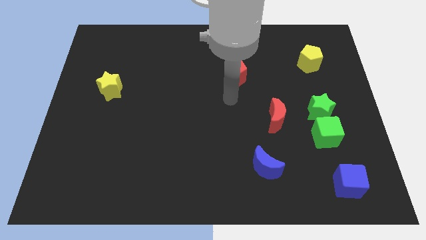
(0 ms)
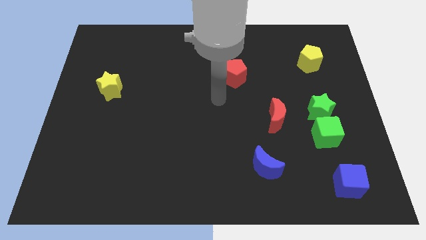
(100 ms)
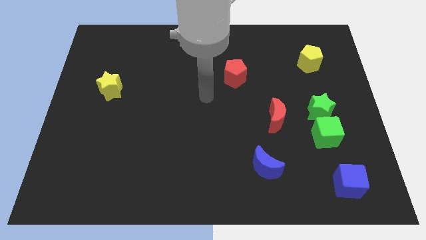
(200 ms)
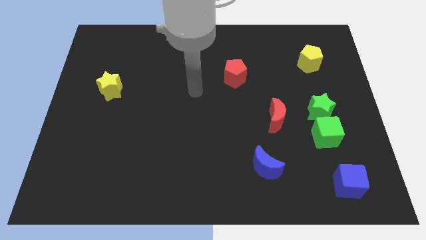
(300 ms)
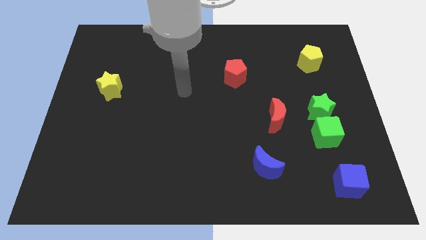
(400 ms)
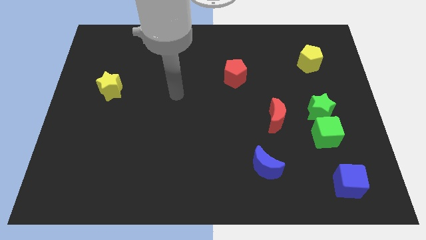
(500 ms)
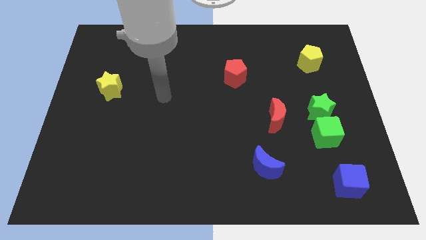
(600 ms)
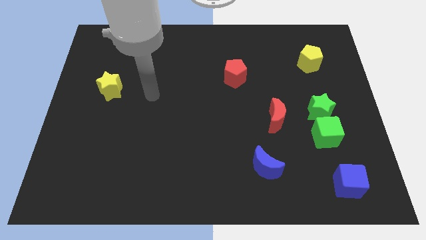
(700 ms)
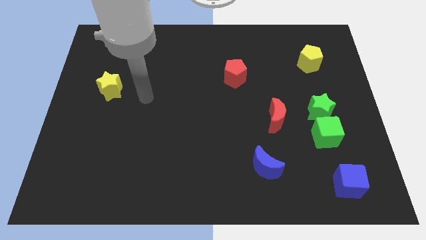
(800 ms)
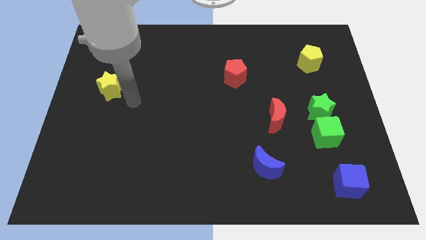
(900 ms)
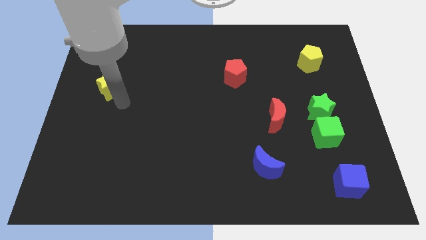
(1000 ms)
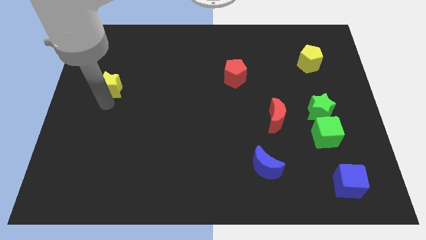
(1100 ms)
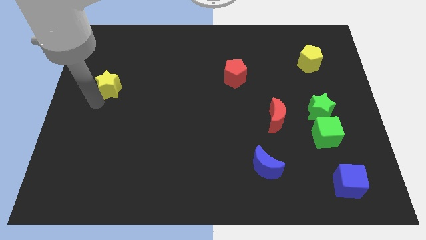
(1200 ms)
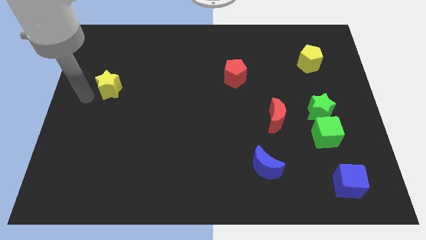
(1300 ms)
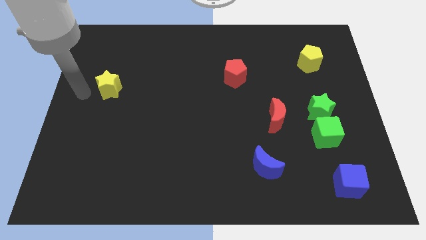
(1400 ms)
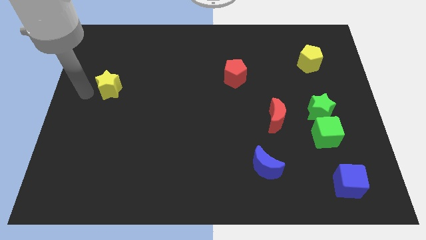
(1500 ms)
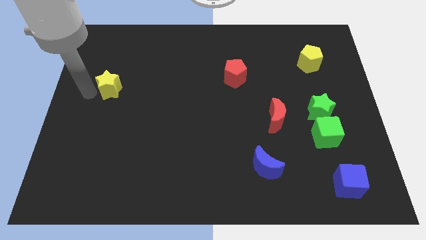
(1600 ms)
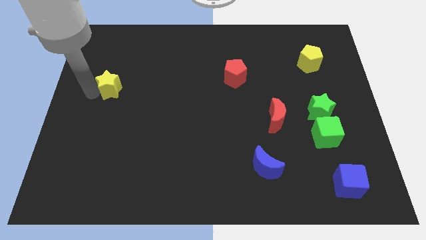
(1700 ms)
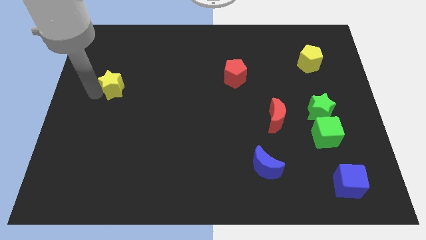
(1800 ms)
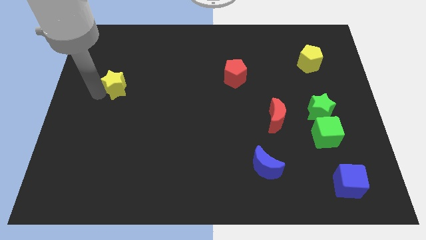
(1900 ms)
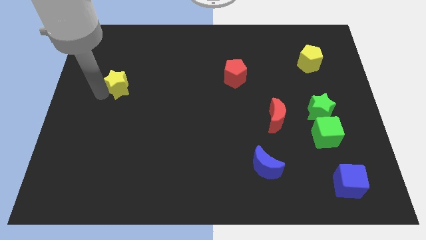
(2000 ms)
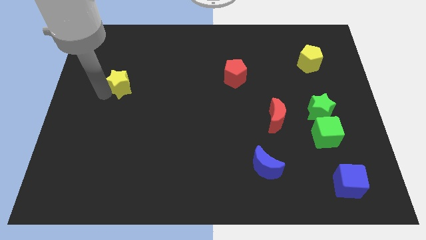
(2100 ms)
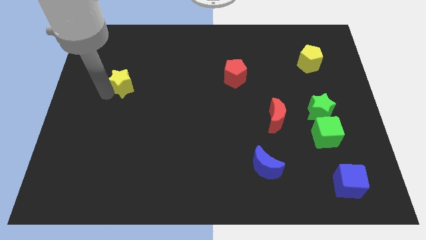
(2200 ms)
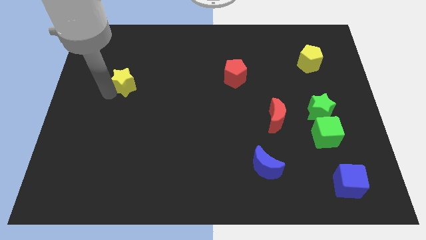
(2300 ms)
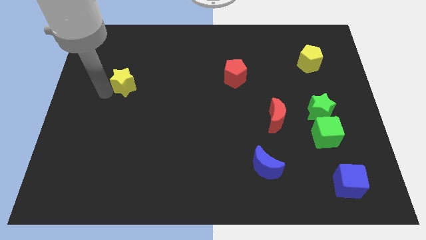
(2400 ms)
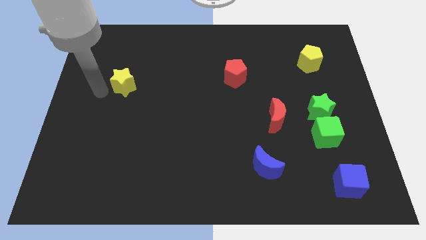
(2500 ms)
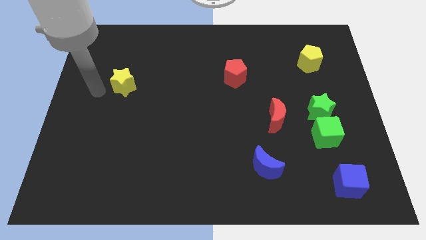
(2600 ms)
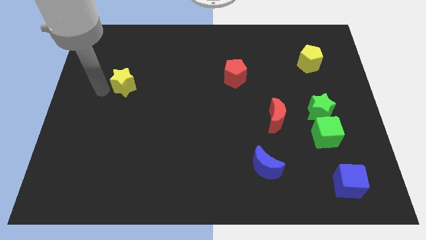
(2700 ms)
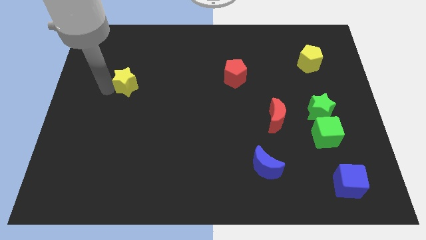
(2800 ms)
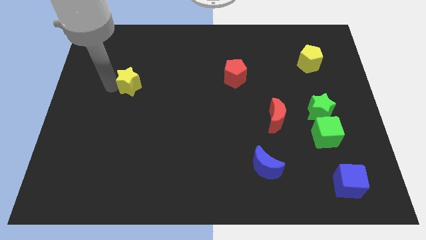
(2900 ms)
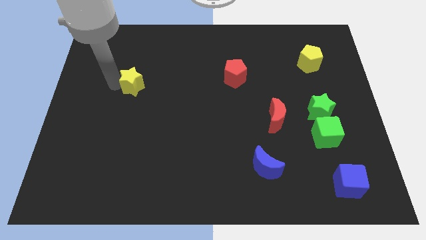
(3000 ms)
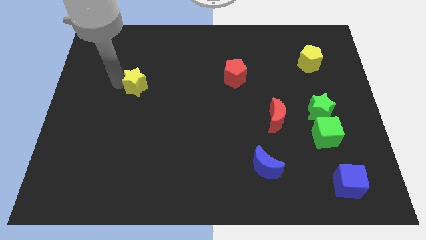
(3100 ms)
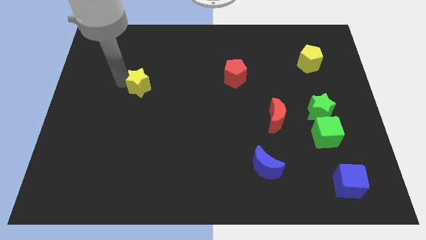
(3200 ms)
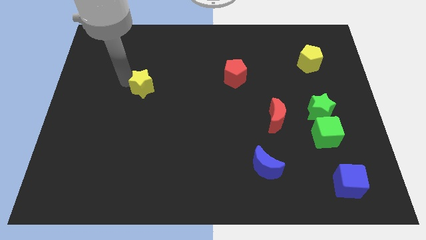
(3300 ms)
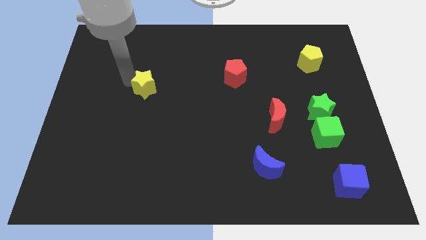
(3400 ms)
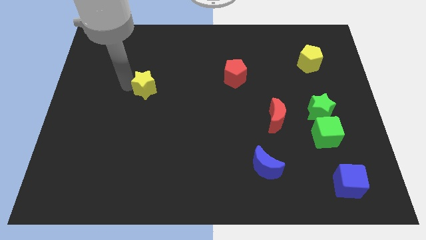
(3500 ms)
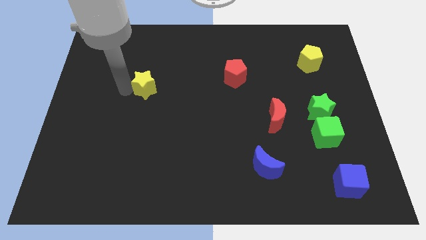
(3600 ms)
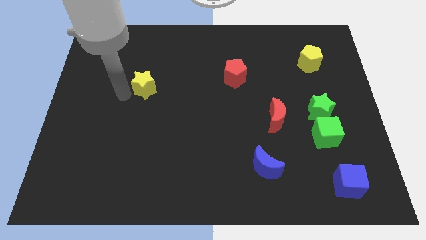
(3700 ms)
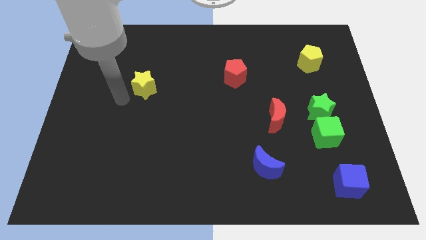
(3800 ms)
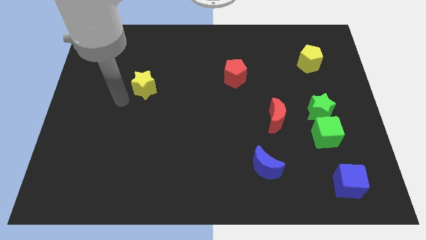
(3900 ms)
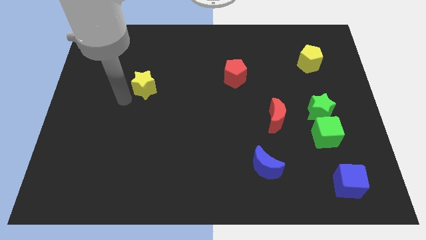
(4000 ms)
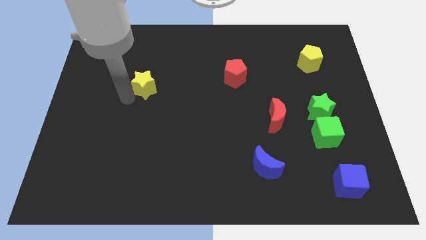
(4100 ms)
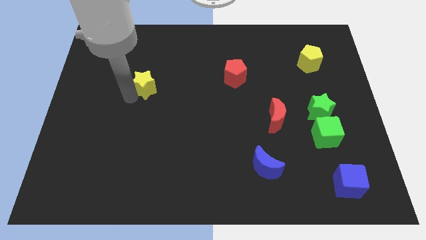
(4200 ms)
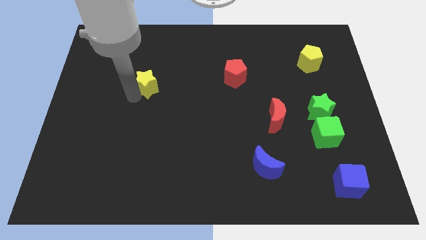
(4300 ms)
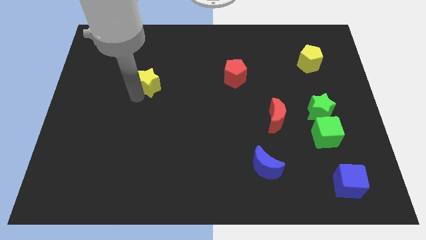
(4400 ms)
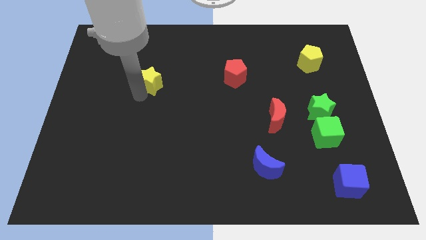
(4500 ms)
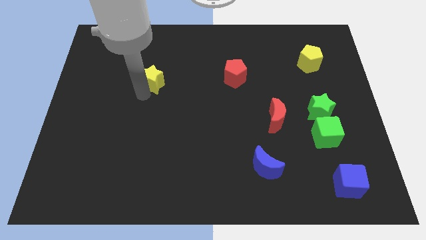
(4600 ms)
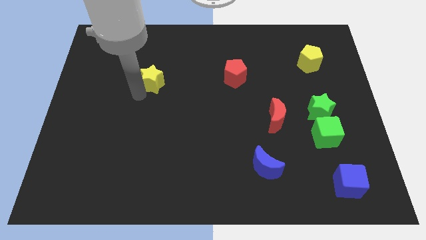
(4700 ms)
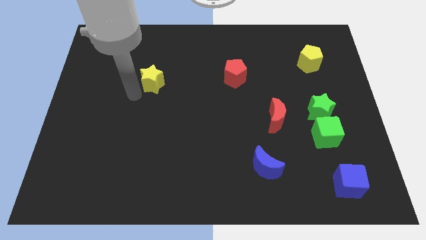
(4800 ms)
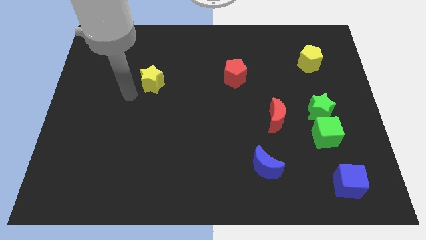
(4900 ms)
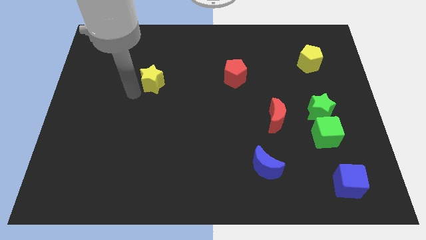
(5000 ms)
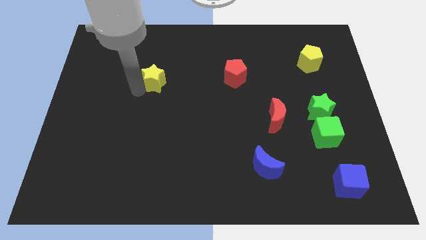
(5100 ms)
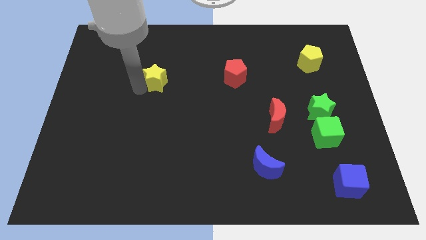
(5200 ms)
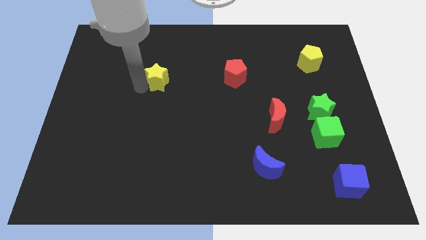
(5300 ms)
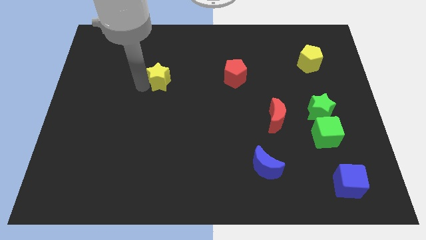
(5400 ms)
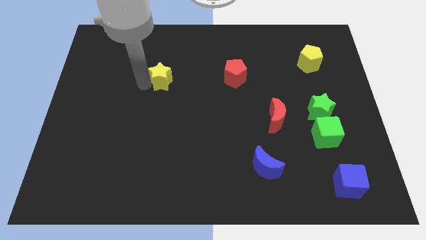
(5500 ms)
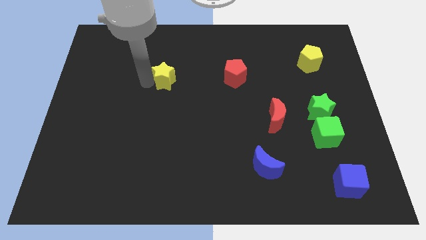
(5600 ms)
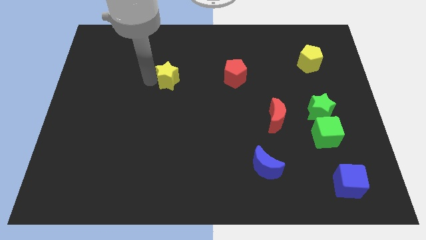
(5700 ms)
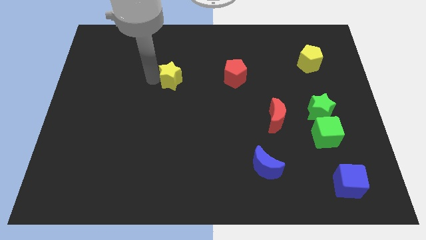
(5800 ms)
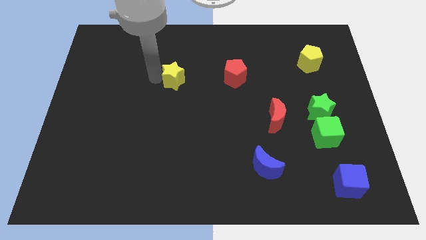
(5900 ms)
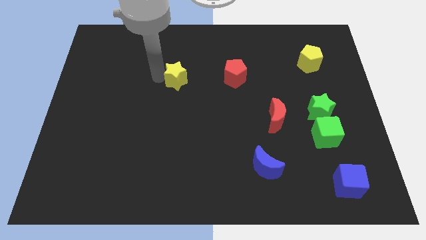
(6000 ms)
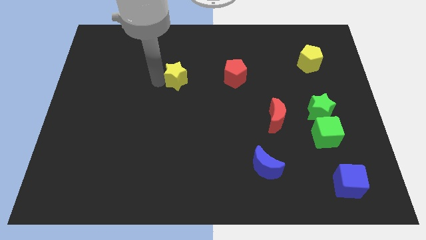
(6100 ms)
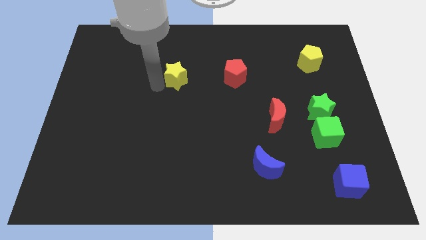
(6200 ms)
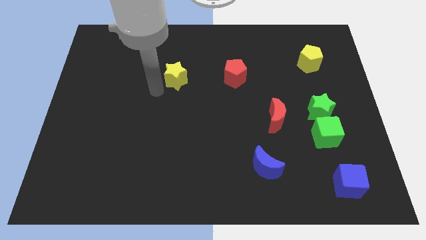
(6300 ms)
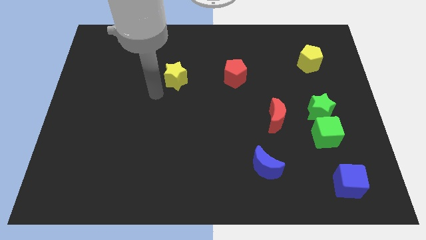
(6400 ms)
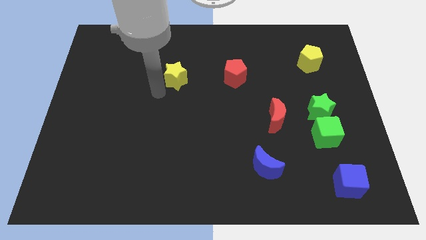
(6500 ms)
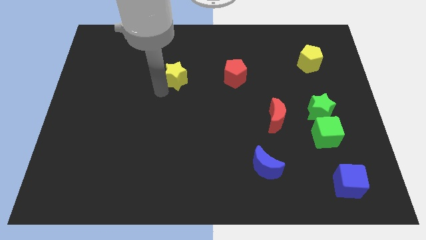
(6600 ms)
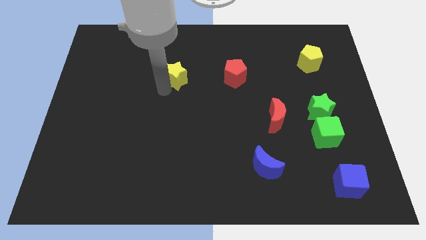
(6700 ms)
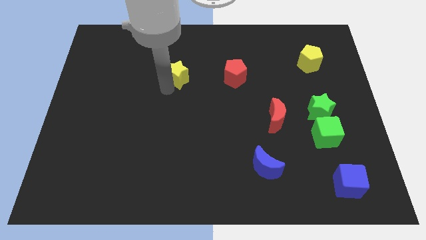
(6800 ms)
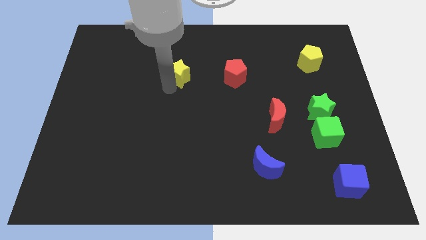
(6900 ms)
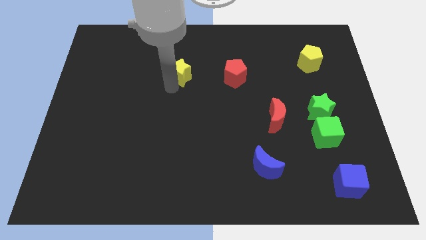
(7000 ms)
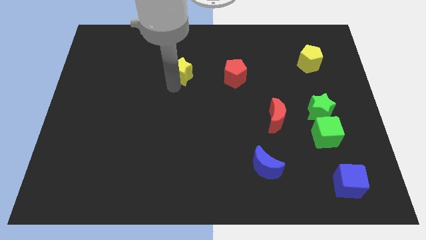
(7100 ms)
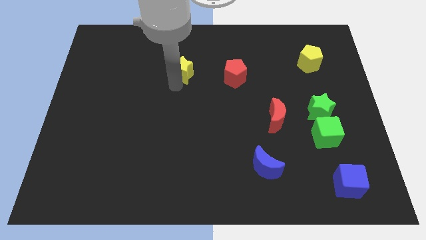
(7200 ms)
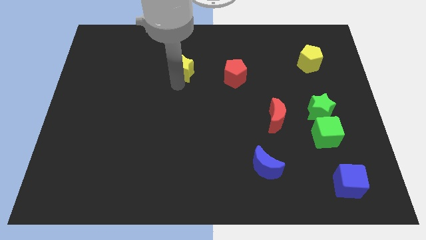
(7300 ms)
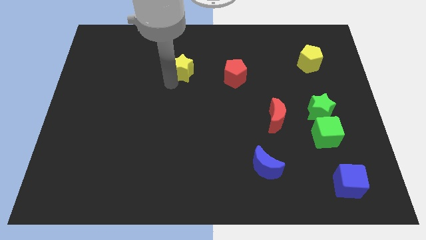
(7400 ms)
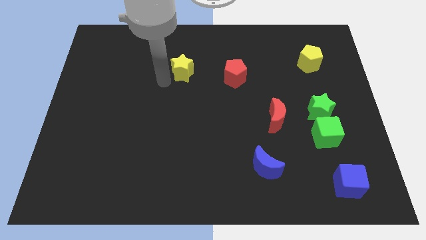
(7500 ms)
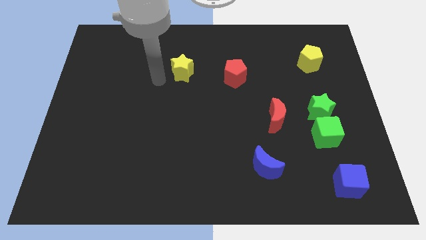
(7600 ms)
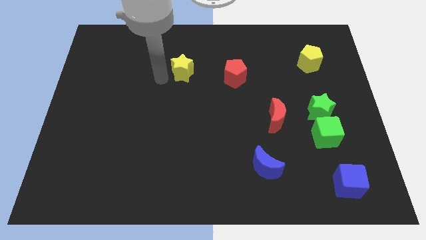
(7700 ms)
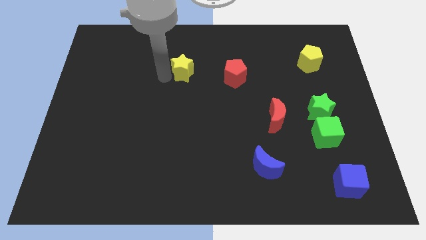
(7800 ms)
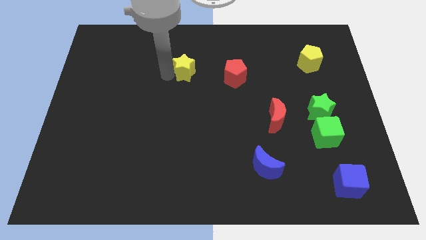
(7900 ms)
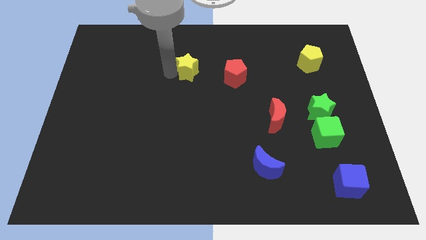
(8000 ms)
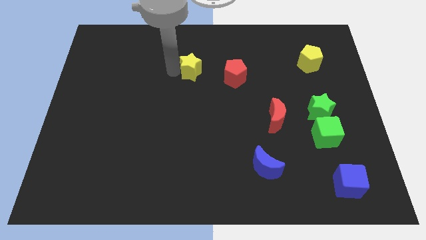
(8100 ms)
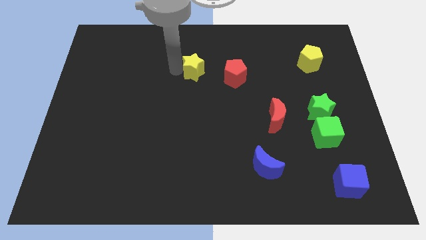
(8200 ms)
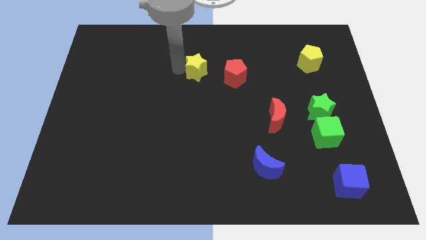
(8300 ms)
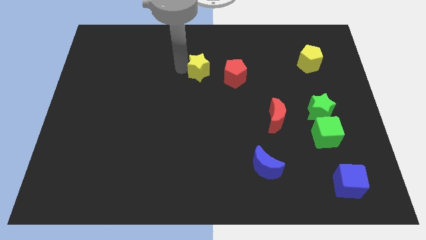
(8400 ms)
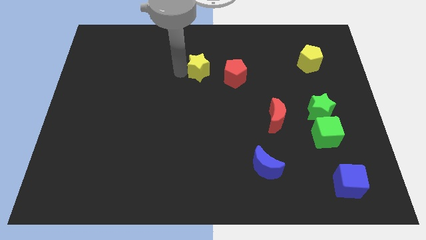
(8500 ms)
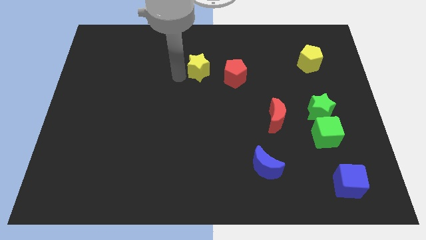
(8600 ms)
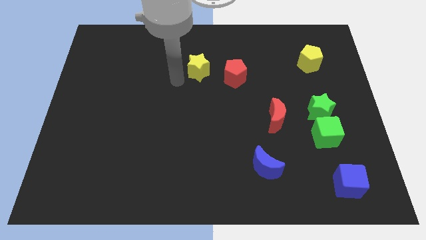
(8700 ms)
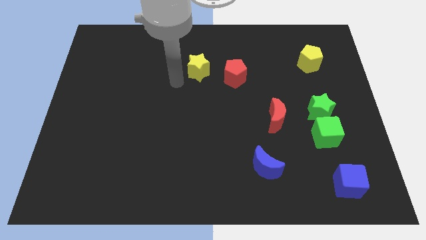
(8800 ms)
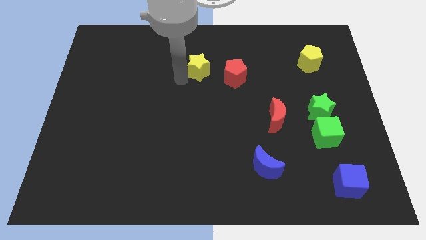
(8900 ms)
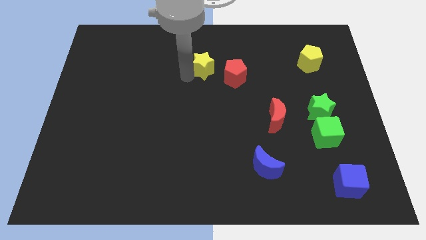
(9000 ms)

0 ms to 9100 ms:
put the yellow star to the top left of the red pentagon
